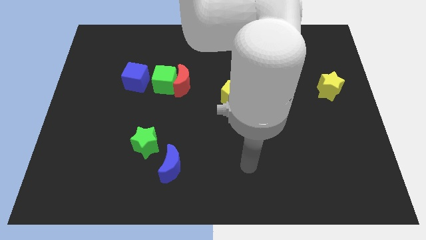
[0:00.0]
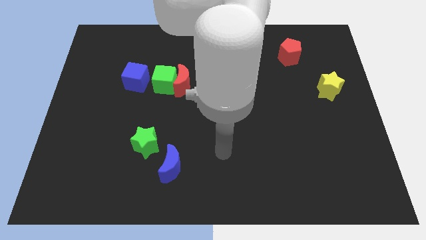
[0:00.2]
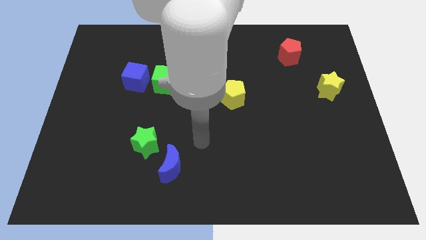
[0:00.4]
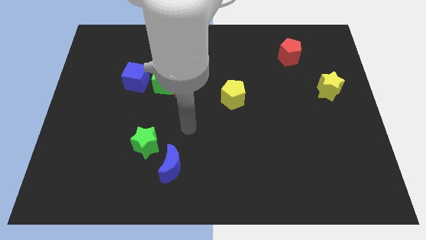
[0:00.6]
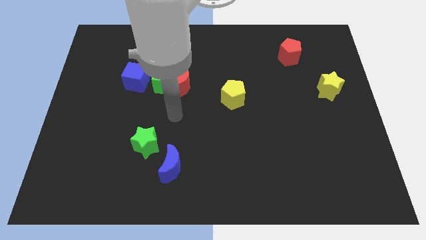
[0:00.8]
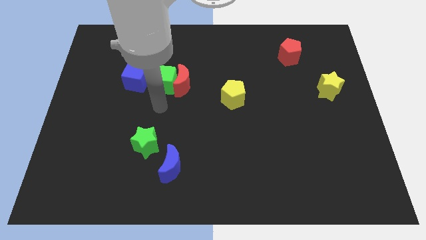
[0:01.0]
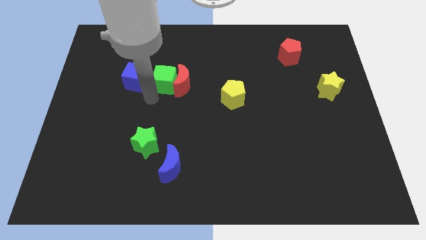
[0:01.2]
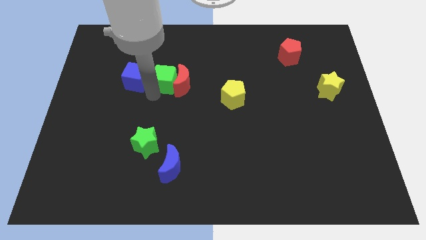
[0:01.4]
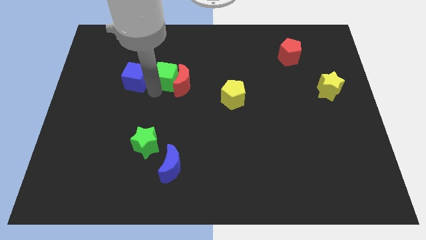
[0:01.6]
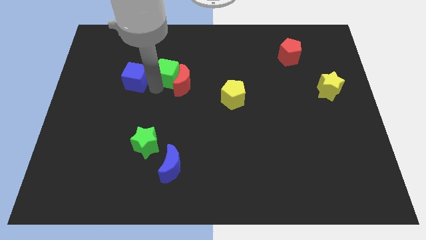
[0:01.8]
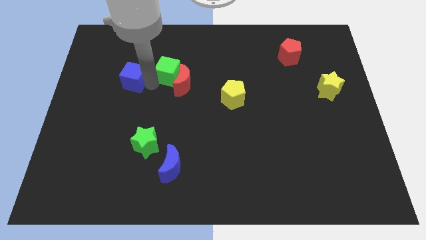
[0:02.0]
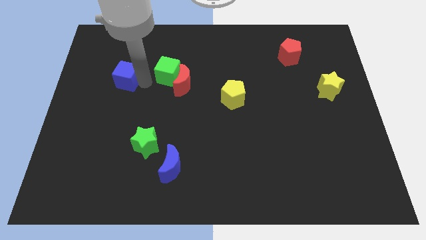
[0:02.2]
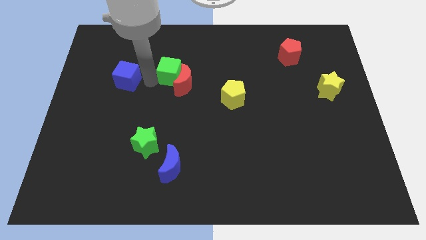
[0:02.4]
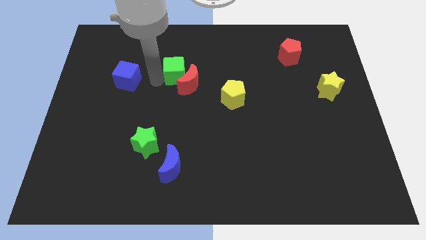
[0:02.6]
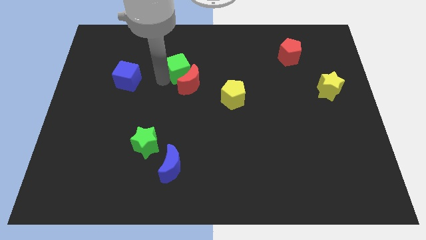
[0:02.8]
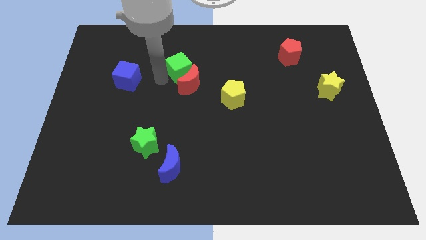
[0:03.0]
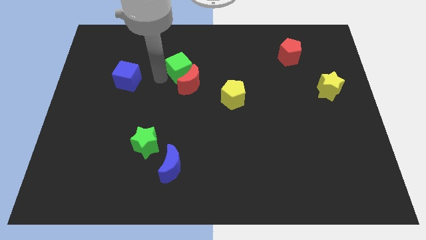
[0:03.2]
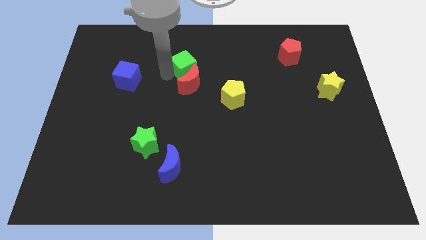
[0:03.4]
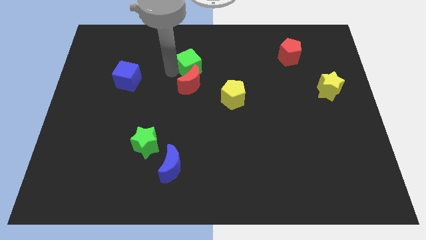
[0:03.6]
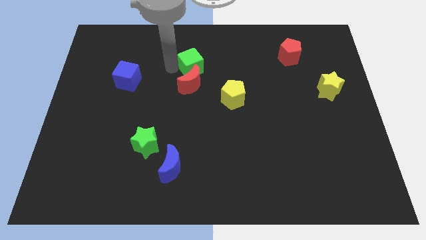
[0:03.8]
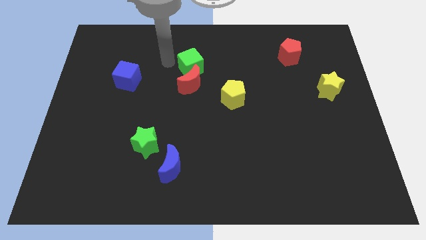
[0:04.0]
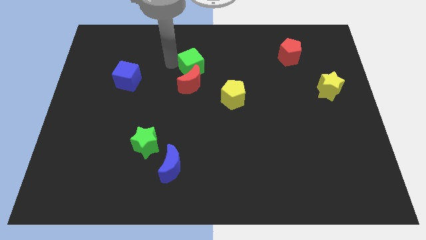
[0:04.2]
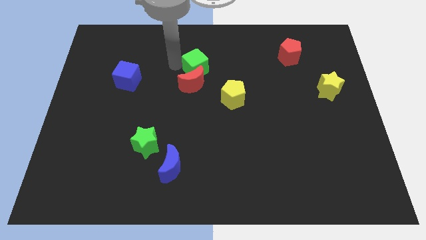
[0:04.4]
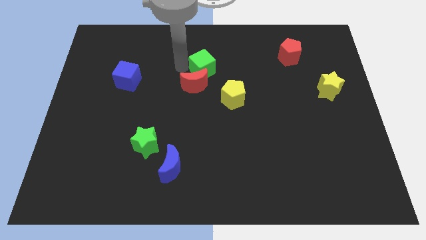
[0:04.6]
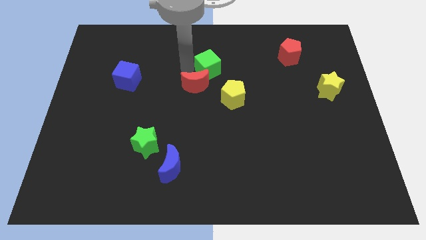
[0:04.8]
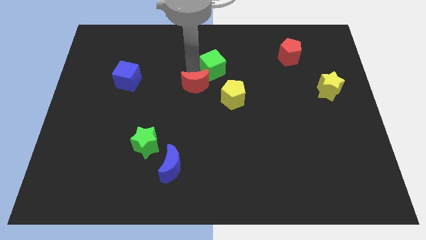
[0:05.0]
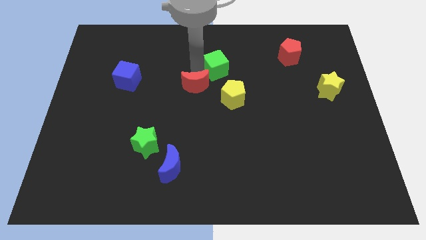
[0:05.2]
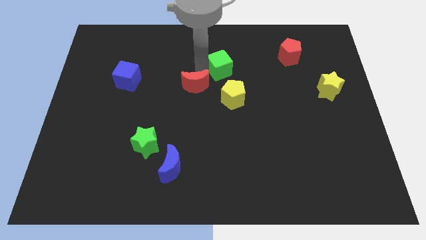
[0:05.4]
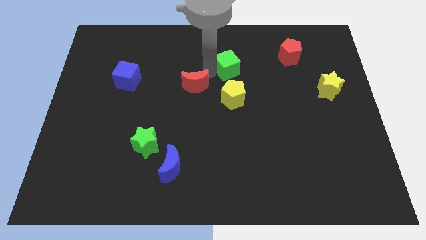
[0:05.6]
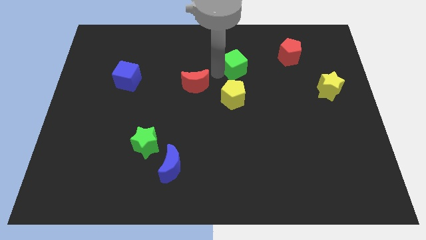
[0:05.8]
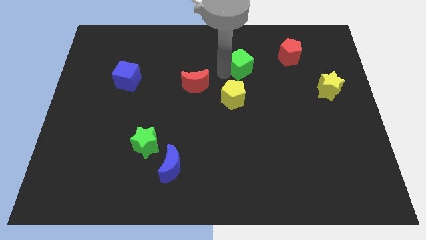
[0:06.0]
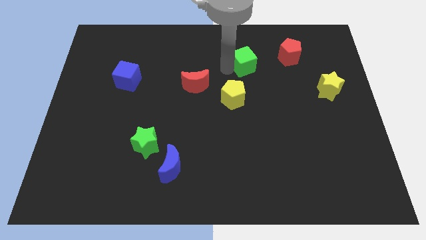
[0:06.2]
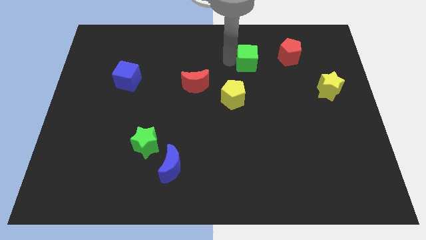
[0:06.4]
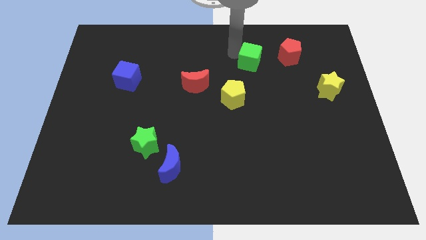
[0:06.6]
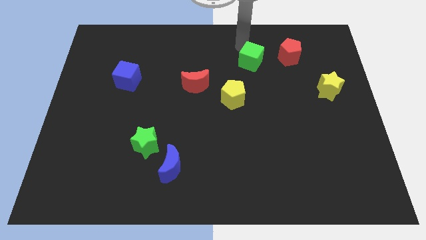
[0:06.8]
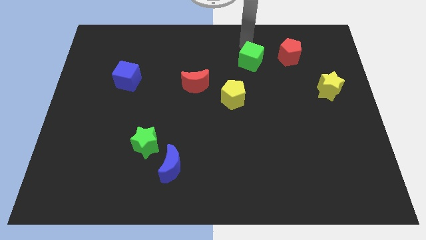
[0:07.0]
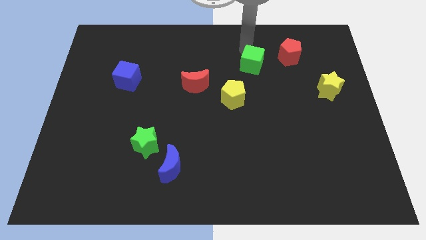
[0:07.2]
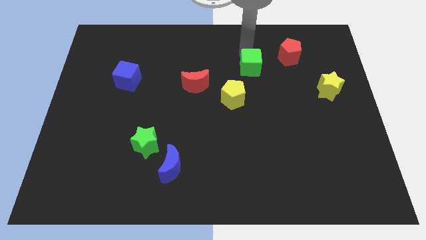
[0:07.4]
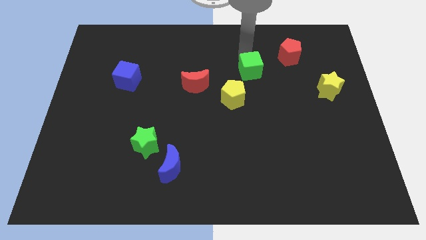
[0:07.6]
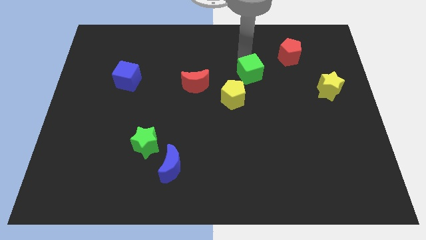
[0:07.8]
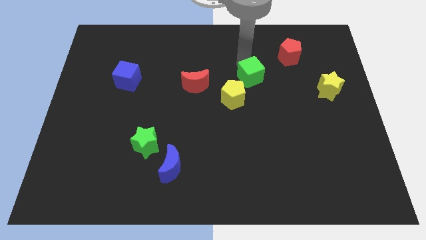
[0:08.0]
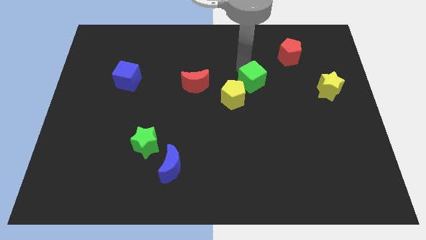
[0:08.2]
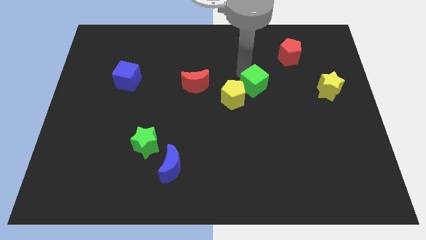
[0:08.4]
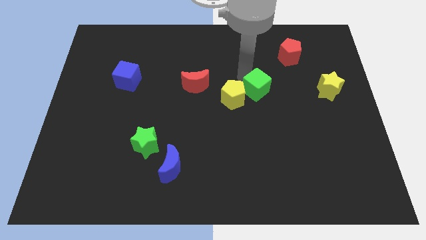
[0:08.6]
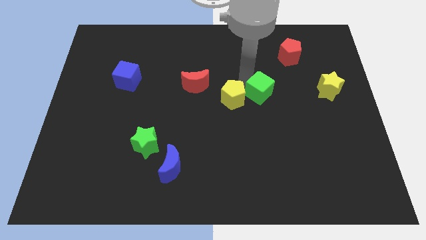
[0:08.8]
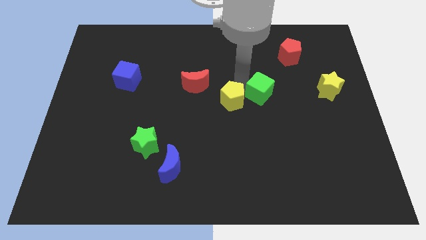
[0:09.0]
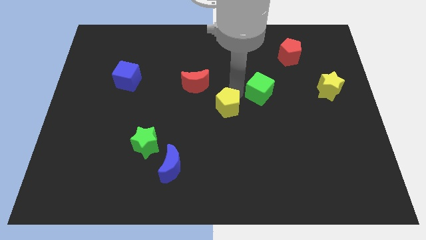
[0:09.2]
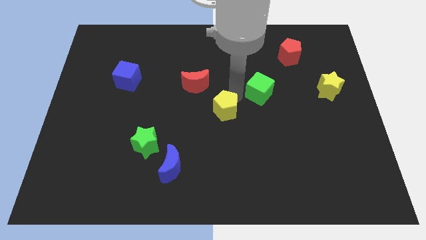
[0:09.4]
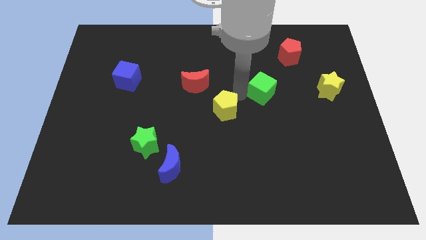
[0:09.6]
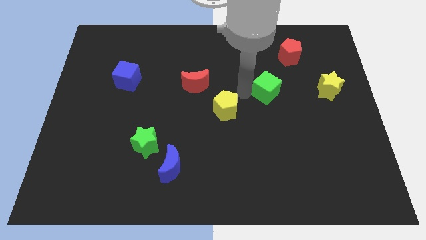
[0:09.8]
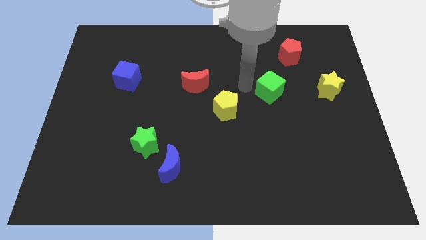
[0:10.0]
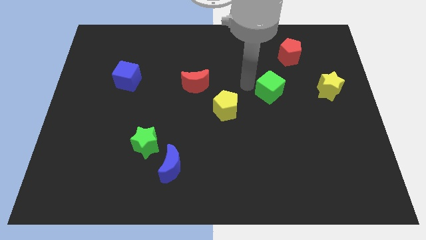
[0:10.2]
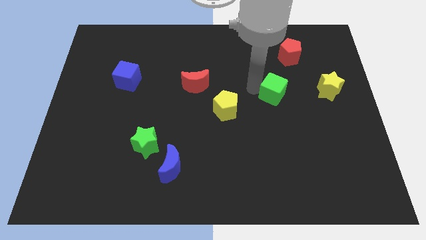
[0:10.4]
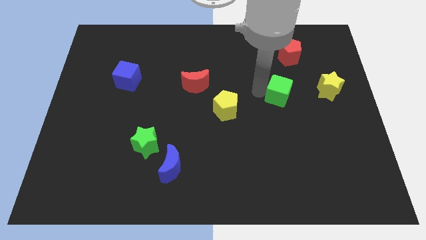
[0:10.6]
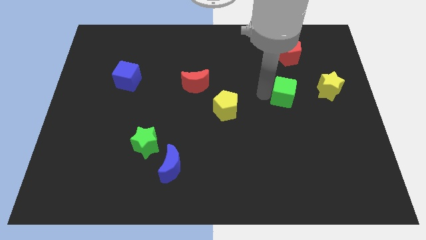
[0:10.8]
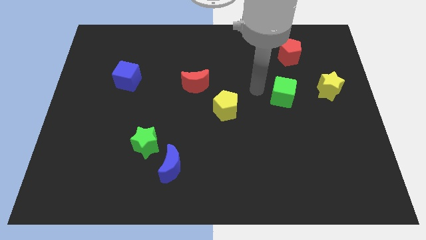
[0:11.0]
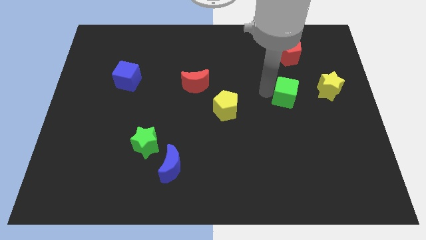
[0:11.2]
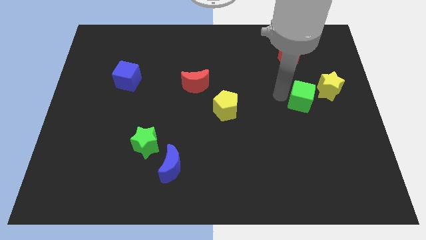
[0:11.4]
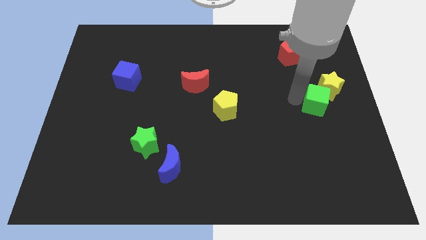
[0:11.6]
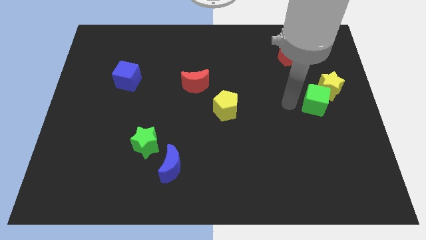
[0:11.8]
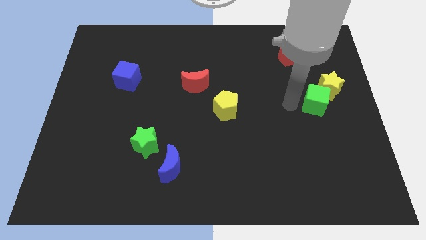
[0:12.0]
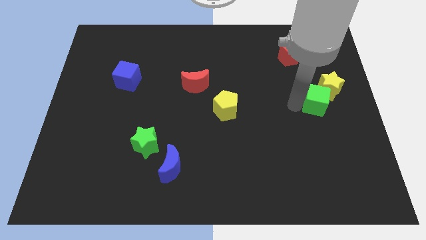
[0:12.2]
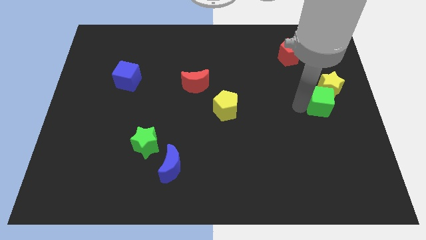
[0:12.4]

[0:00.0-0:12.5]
move the green cube to the right side of the board
